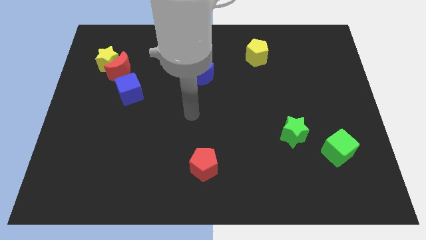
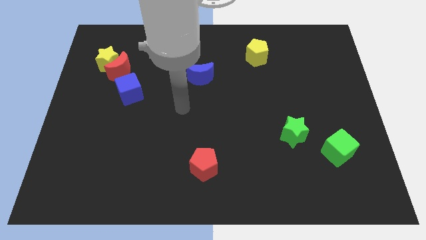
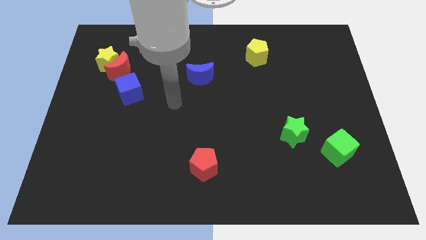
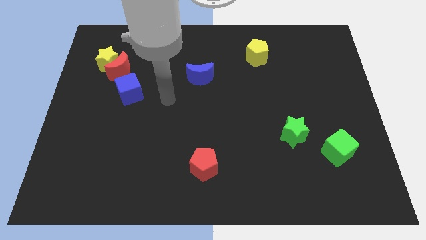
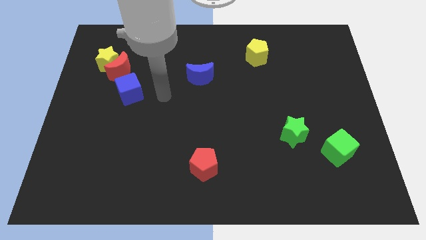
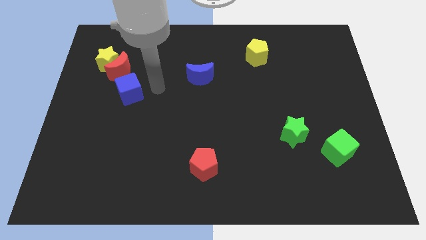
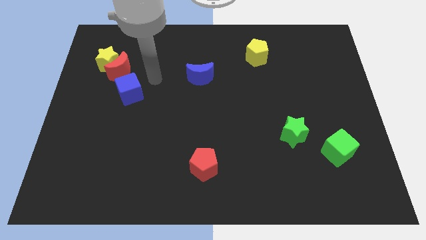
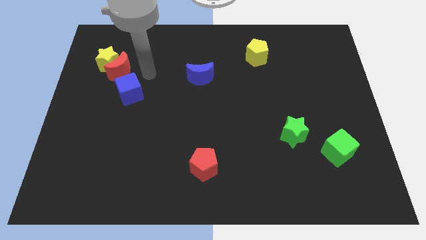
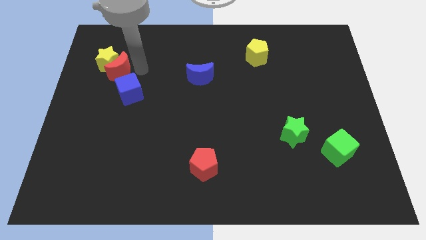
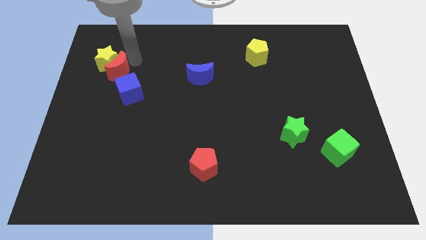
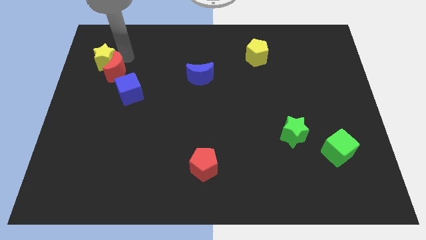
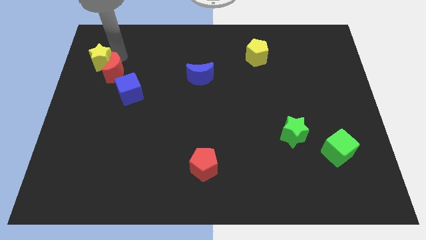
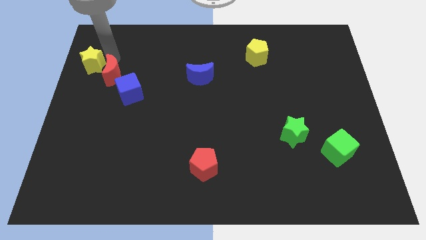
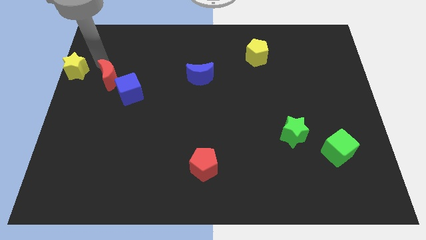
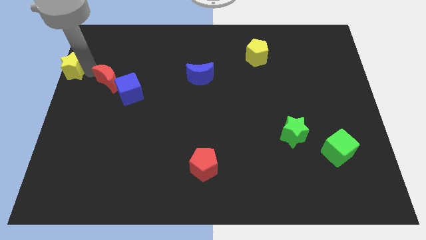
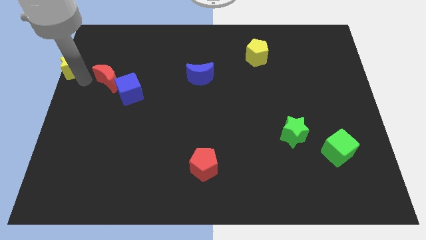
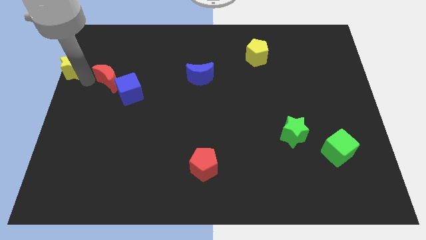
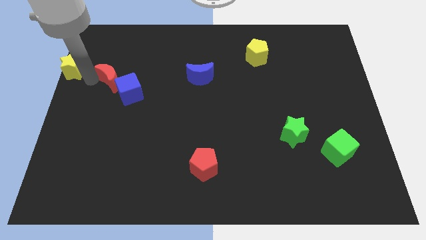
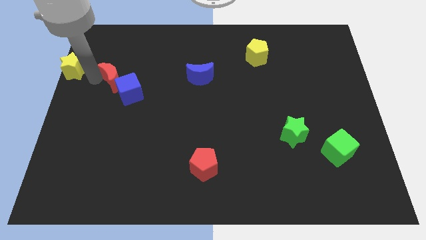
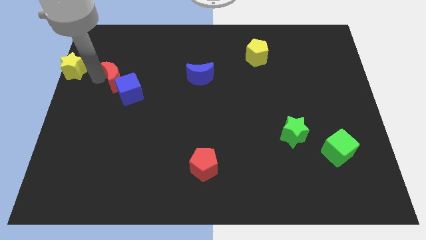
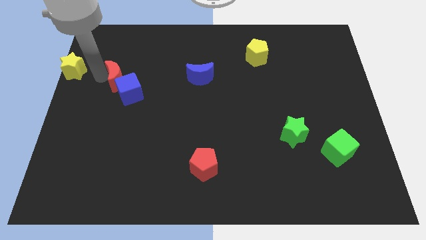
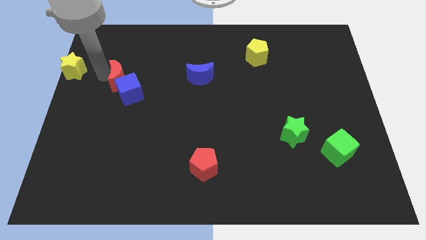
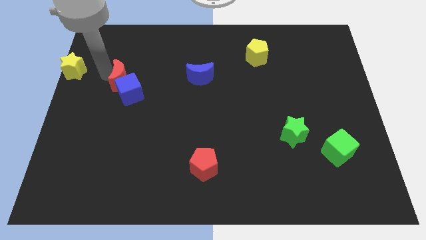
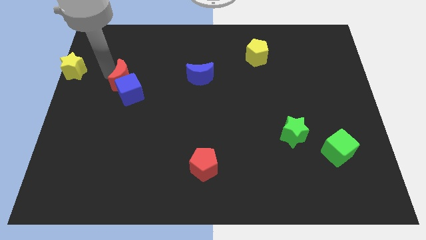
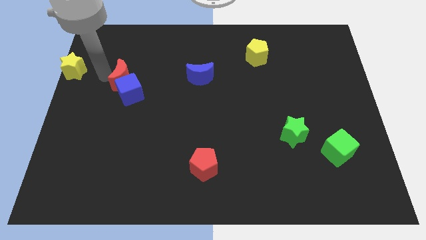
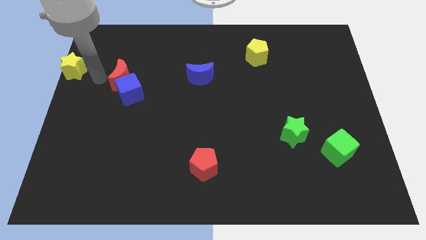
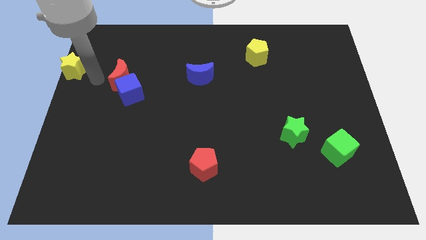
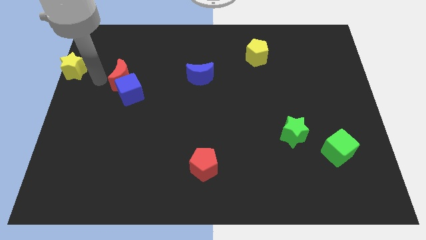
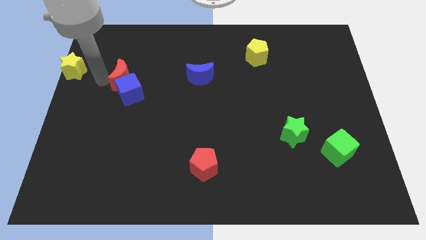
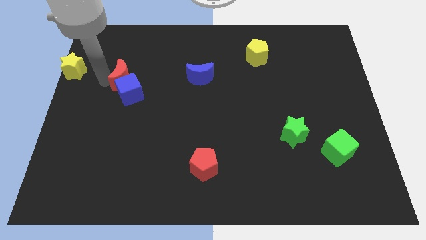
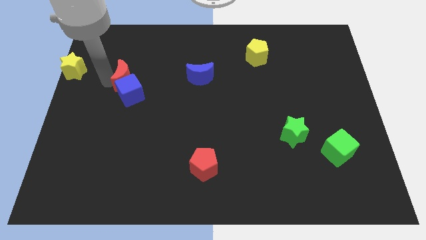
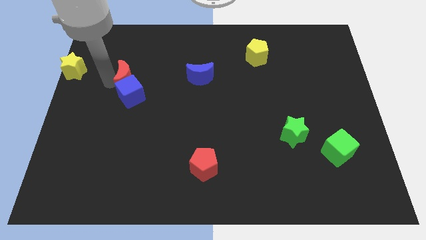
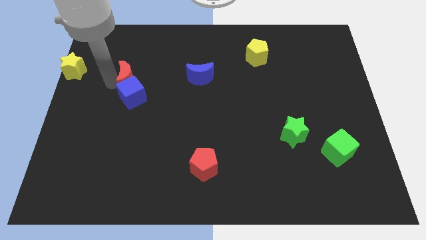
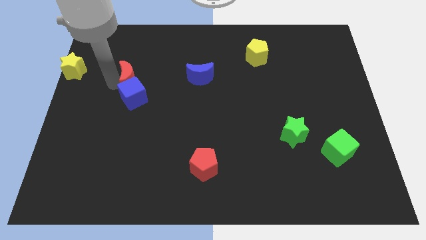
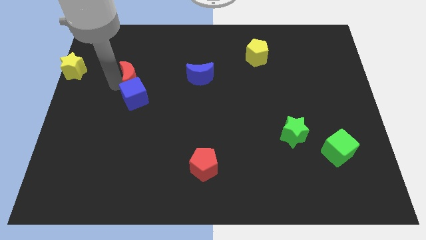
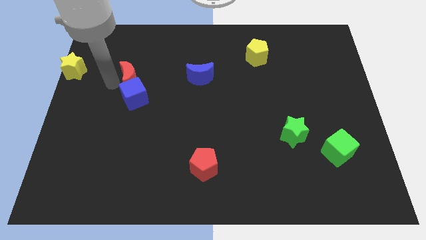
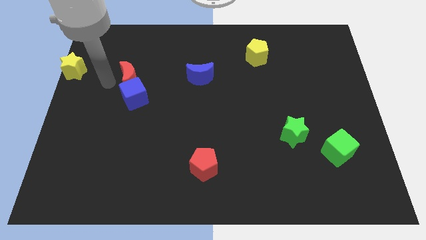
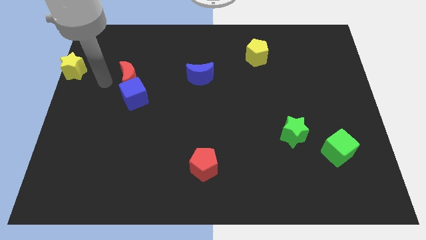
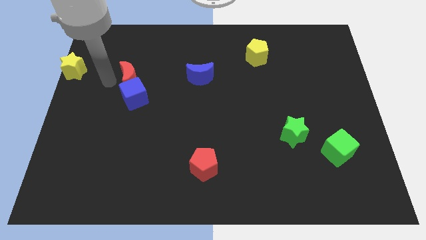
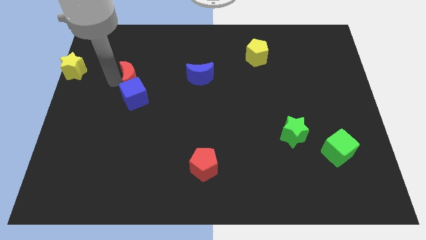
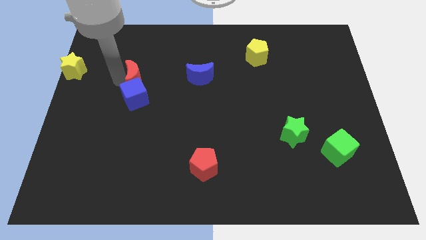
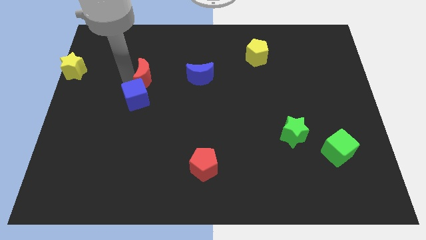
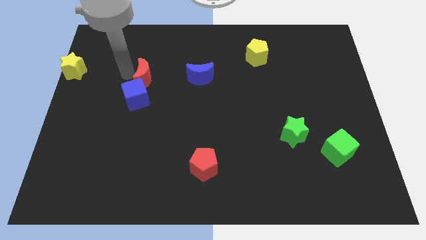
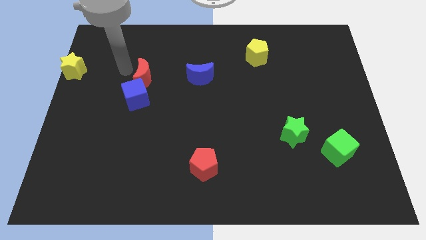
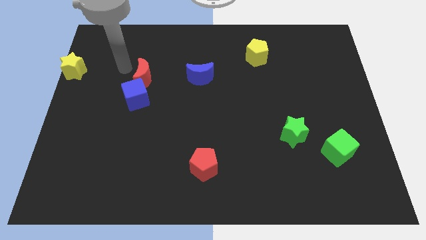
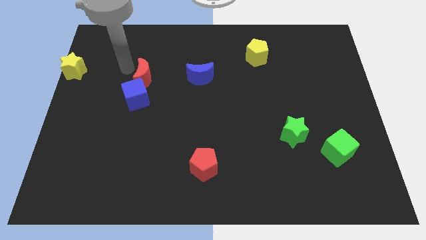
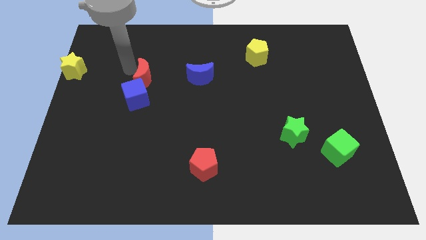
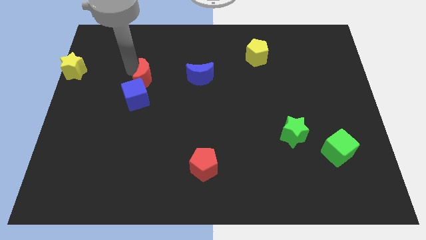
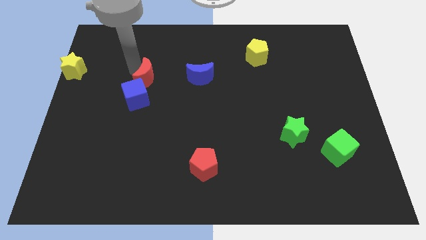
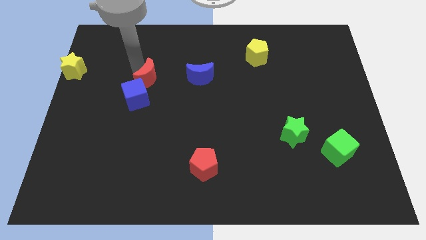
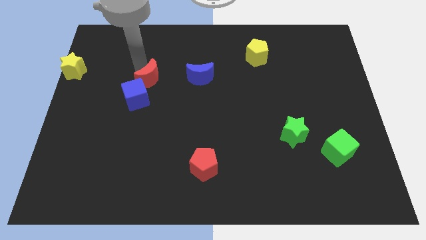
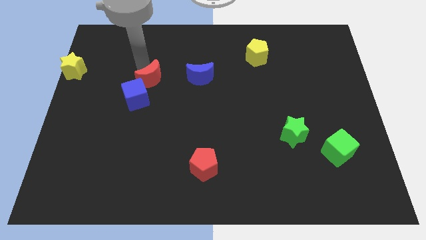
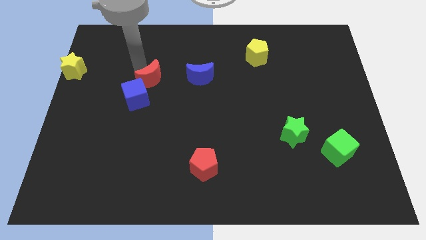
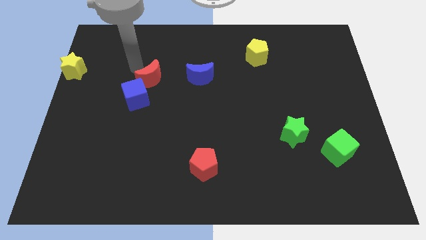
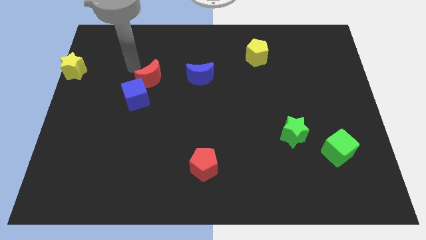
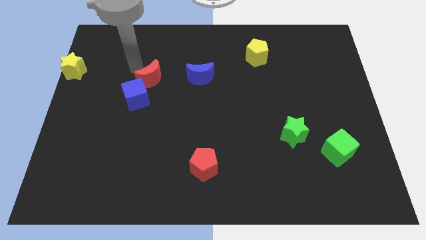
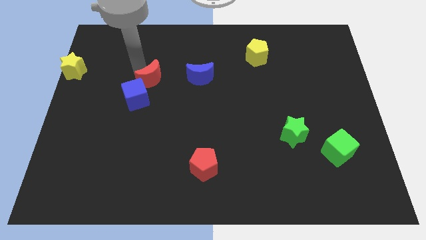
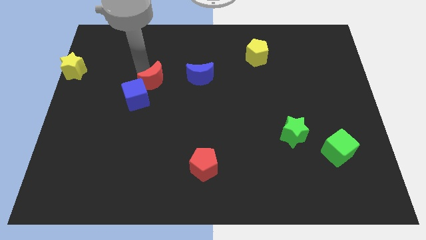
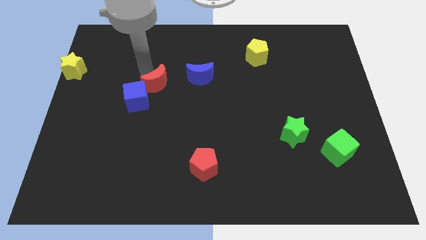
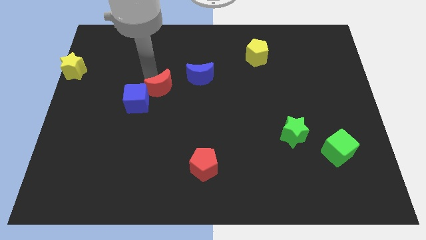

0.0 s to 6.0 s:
slide the red moon to the bottom left side of the blue moon
